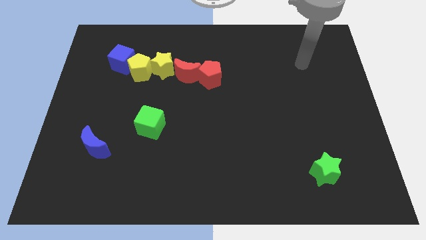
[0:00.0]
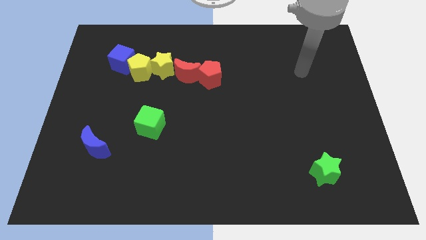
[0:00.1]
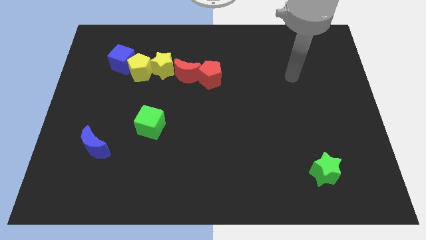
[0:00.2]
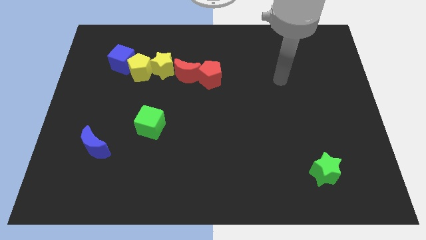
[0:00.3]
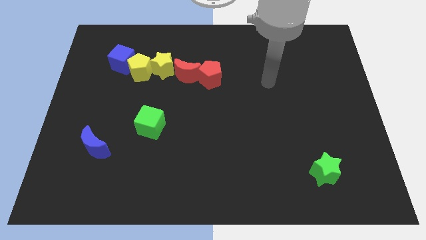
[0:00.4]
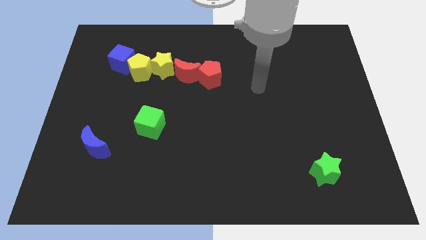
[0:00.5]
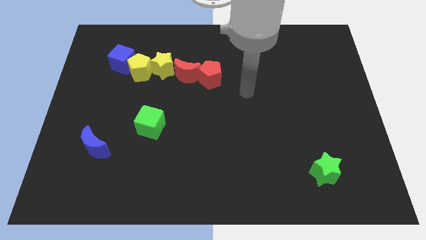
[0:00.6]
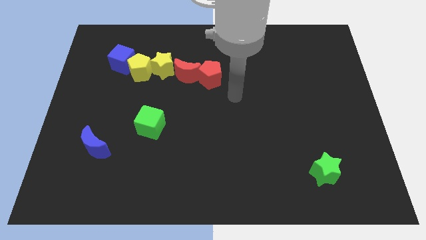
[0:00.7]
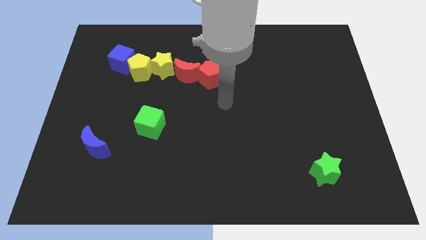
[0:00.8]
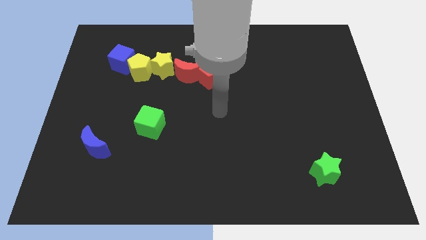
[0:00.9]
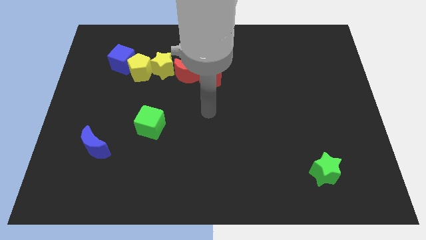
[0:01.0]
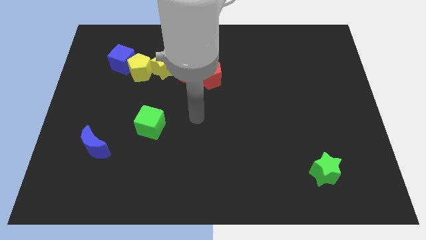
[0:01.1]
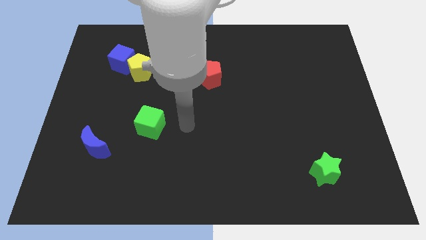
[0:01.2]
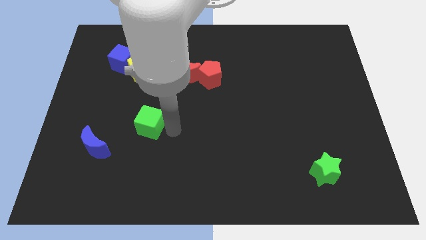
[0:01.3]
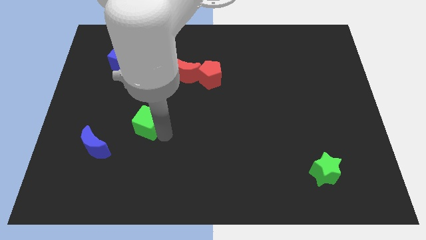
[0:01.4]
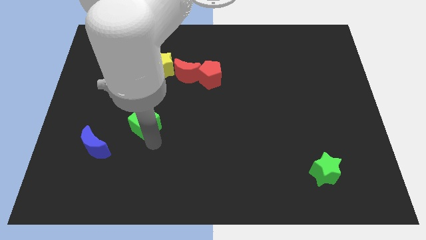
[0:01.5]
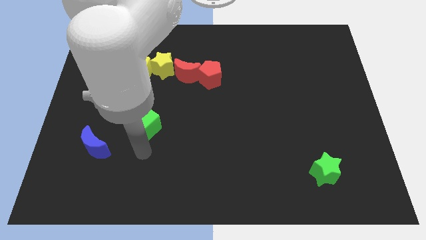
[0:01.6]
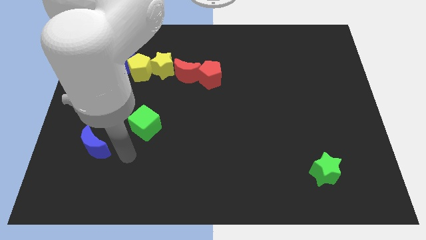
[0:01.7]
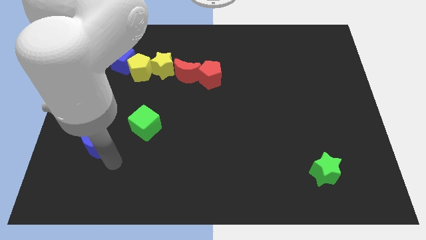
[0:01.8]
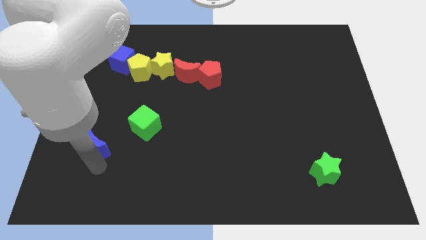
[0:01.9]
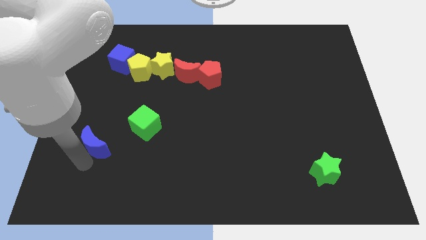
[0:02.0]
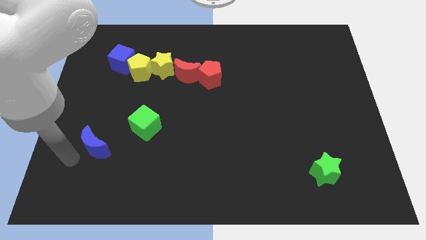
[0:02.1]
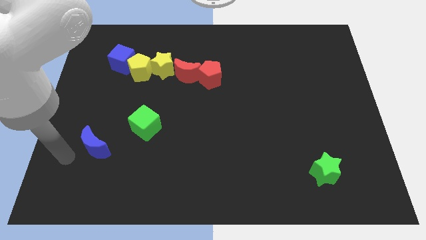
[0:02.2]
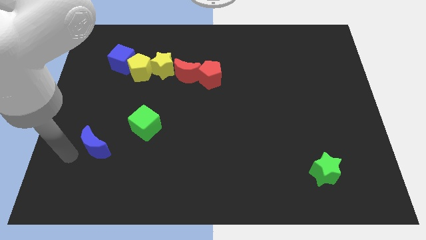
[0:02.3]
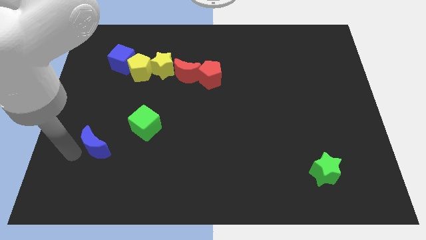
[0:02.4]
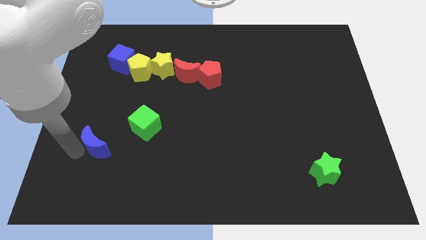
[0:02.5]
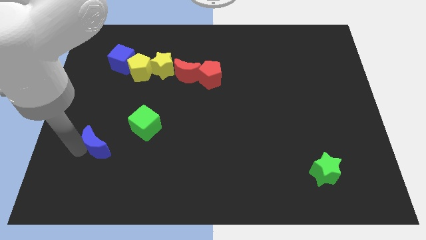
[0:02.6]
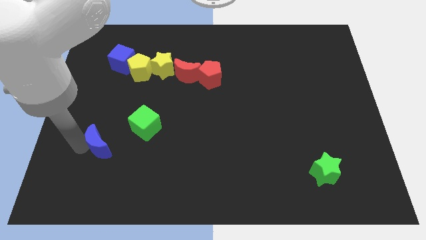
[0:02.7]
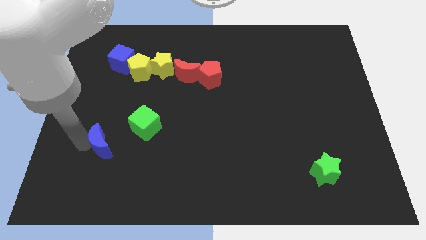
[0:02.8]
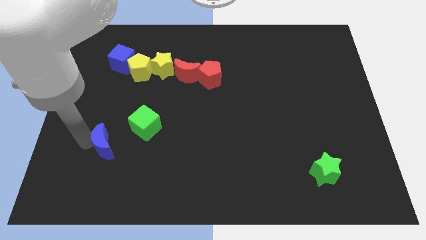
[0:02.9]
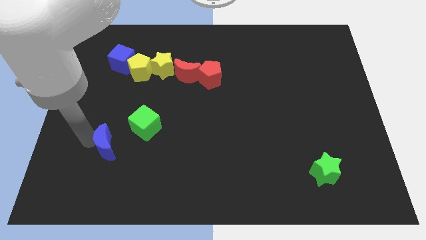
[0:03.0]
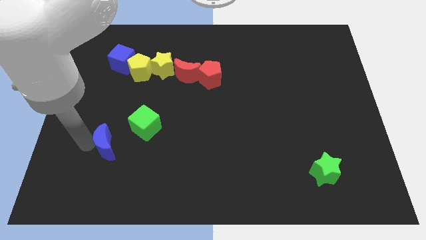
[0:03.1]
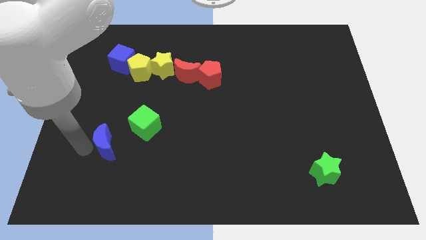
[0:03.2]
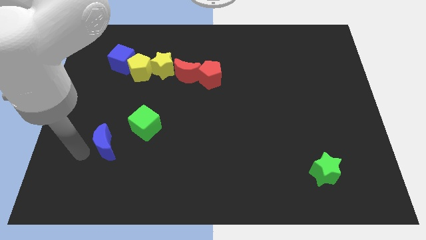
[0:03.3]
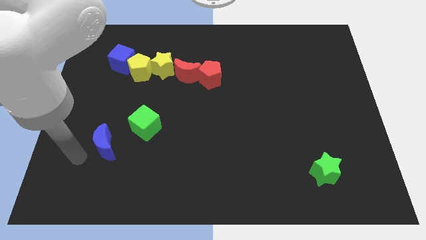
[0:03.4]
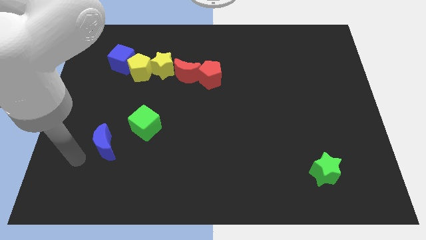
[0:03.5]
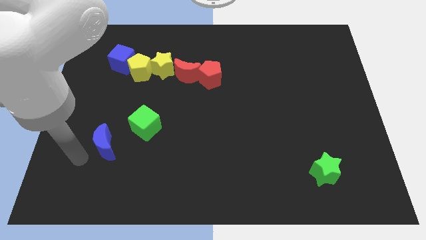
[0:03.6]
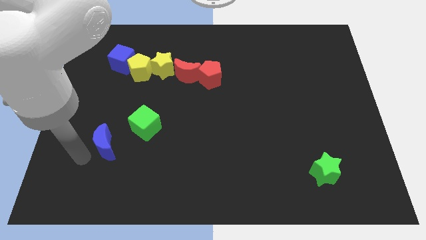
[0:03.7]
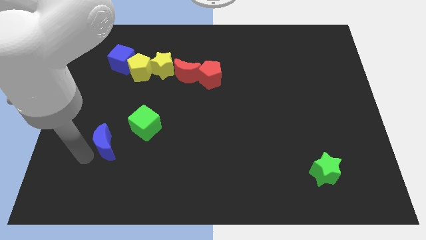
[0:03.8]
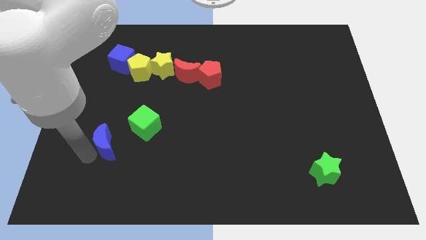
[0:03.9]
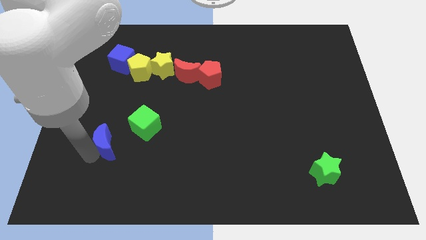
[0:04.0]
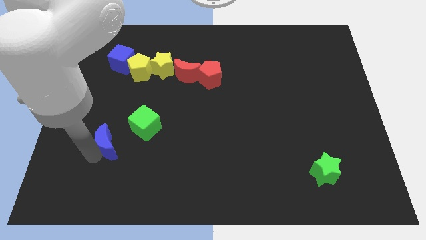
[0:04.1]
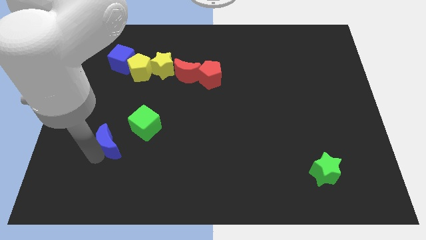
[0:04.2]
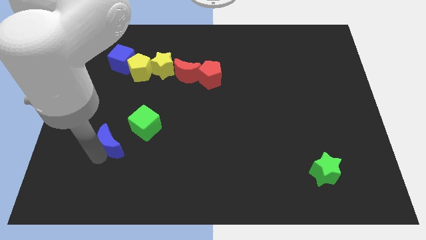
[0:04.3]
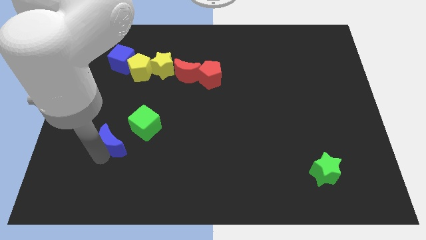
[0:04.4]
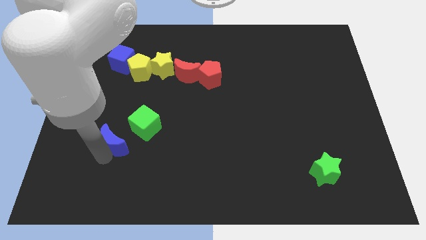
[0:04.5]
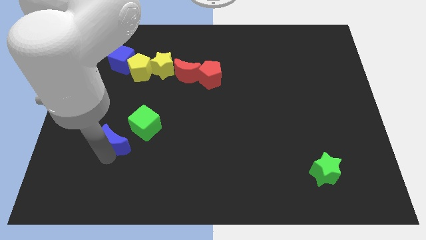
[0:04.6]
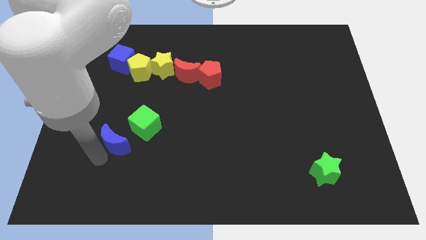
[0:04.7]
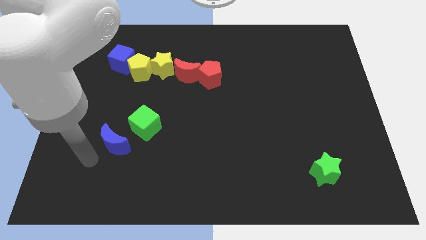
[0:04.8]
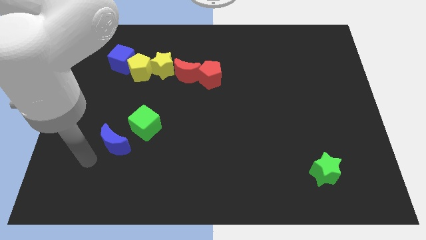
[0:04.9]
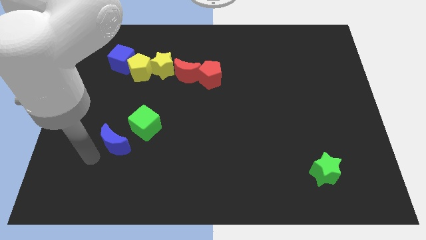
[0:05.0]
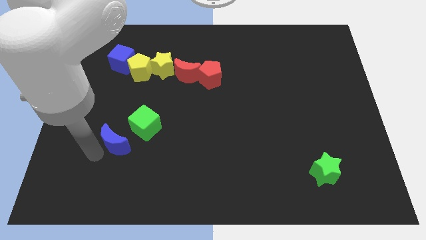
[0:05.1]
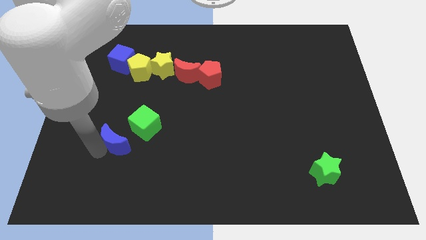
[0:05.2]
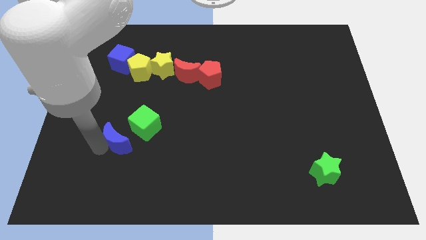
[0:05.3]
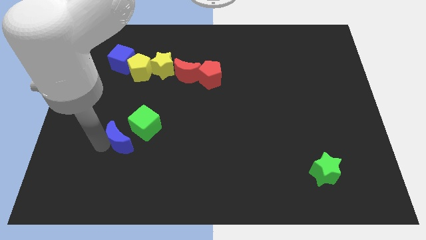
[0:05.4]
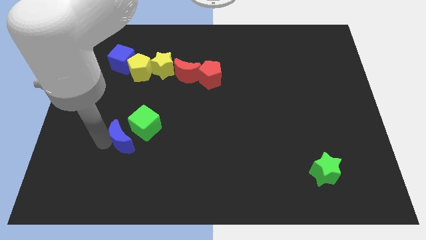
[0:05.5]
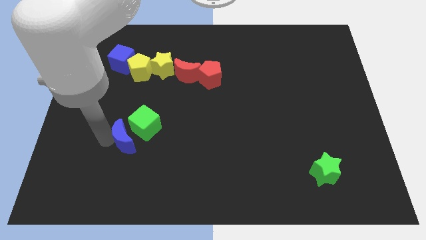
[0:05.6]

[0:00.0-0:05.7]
put the blue moon to the green cube

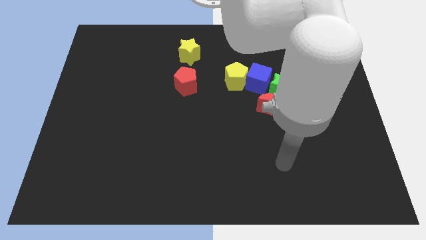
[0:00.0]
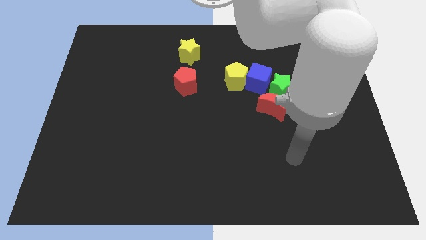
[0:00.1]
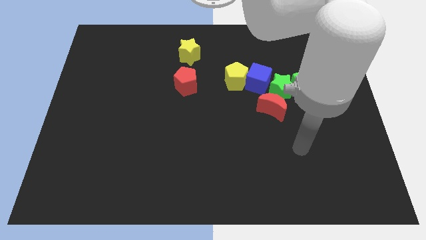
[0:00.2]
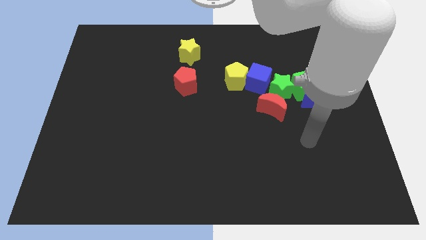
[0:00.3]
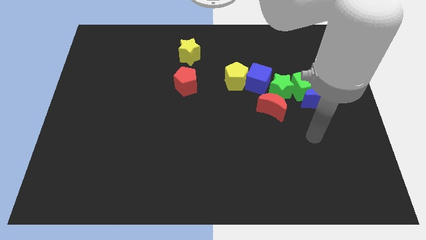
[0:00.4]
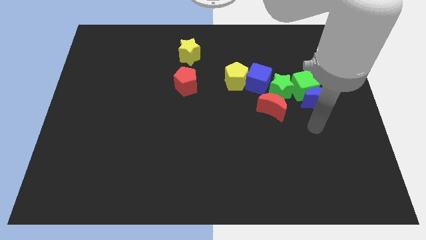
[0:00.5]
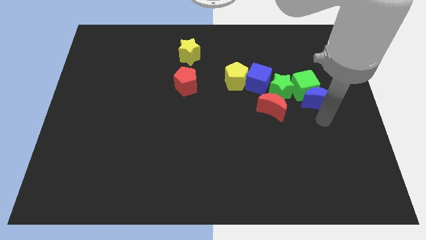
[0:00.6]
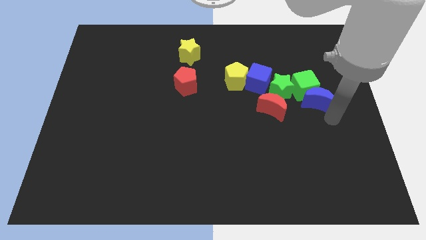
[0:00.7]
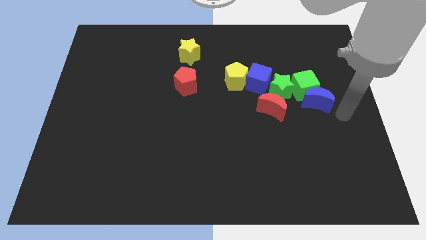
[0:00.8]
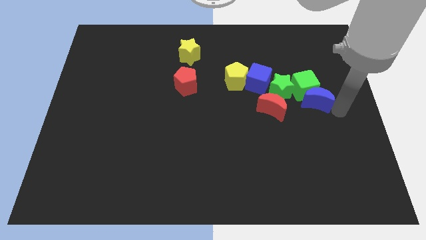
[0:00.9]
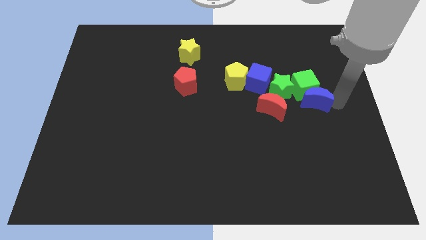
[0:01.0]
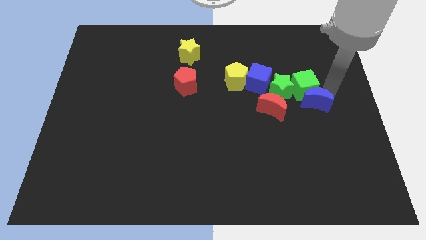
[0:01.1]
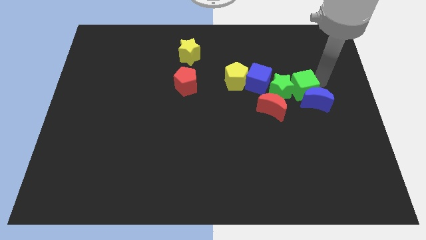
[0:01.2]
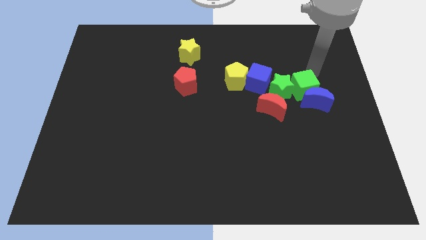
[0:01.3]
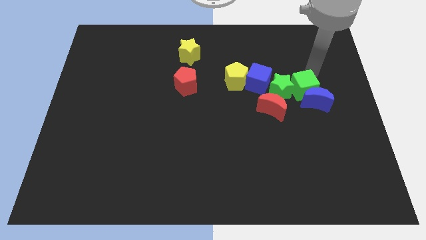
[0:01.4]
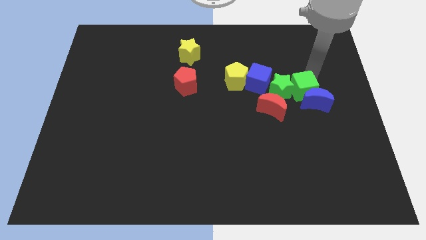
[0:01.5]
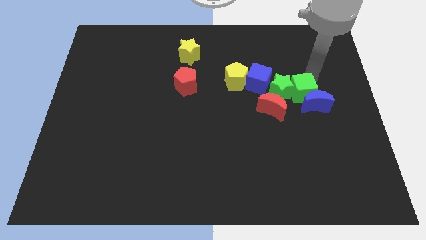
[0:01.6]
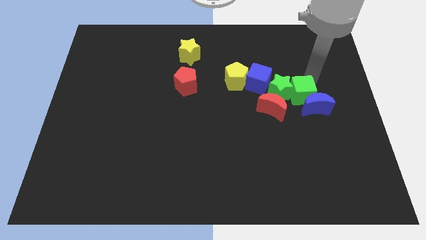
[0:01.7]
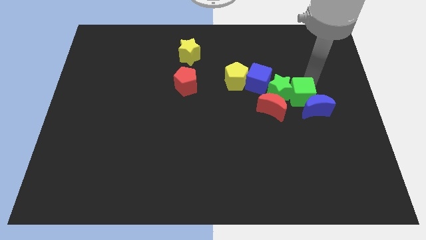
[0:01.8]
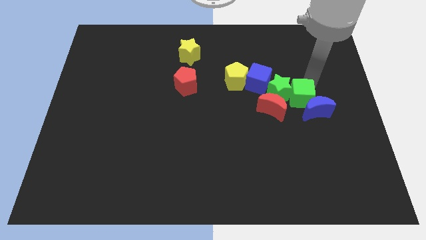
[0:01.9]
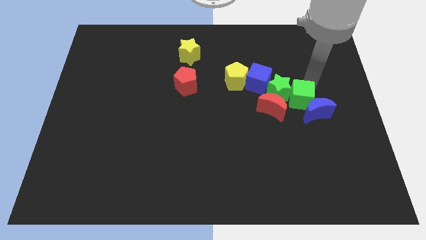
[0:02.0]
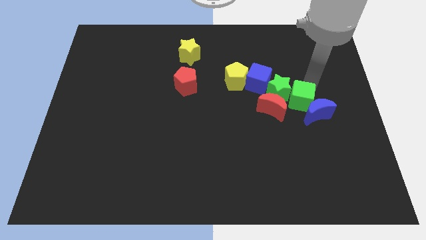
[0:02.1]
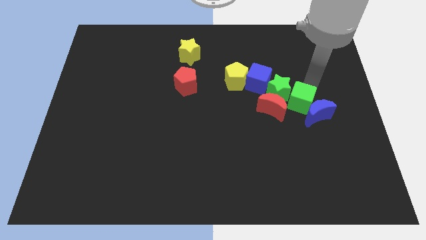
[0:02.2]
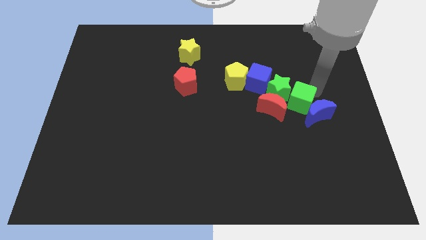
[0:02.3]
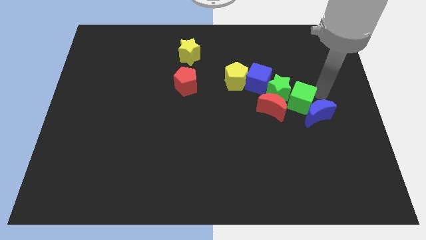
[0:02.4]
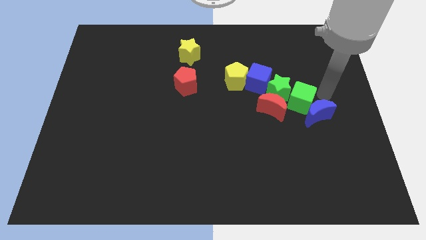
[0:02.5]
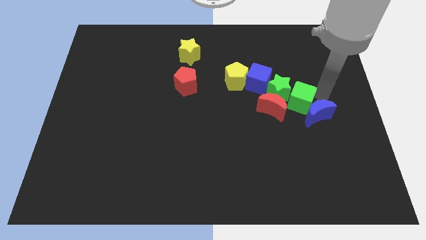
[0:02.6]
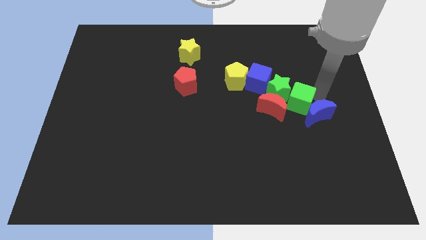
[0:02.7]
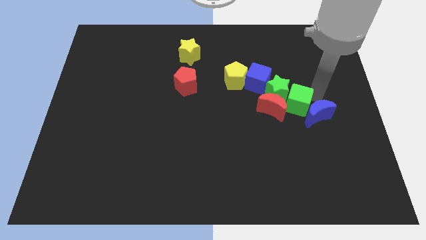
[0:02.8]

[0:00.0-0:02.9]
put the green cube towards the red moon
